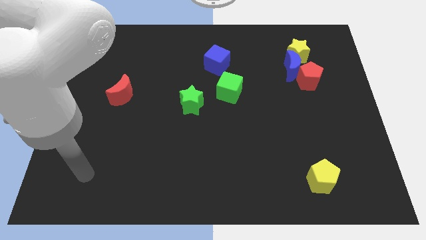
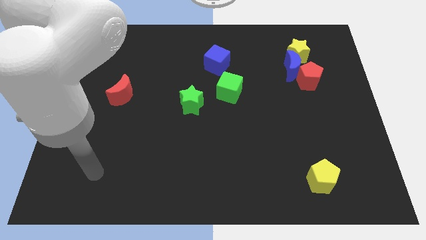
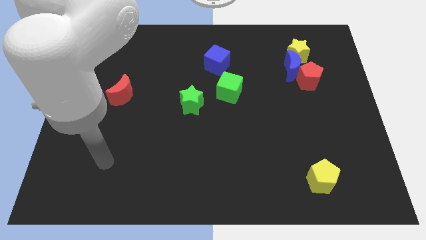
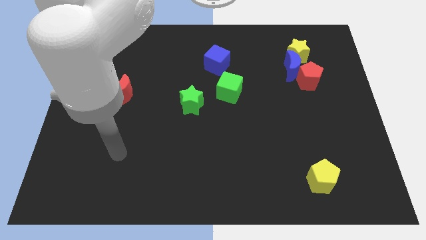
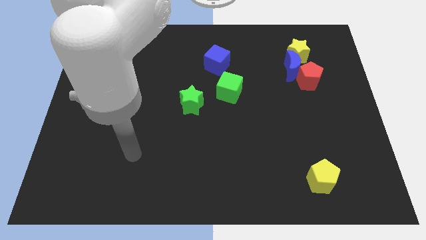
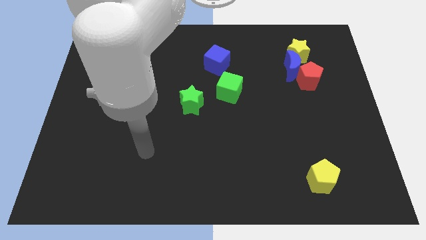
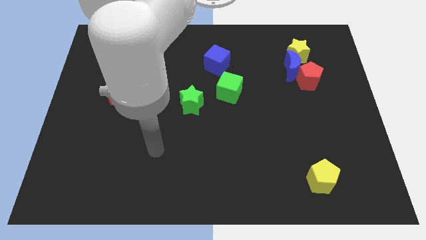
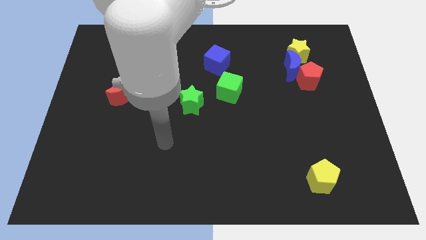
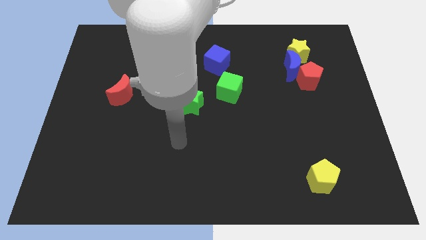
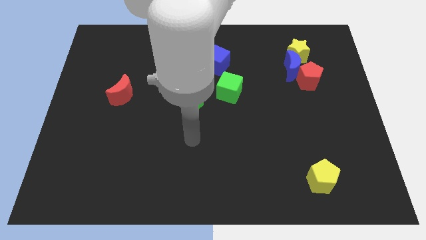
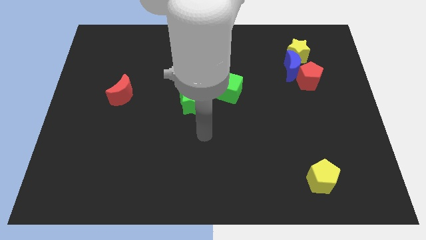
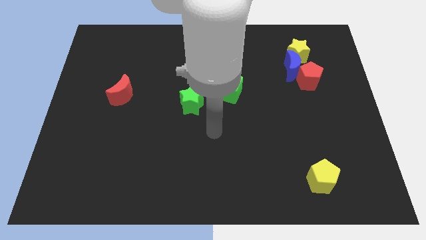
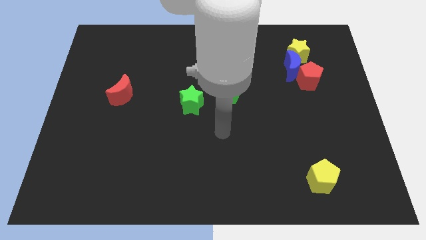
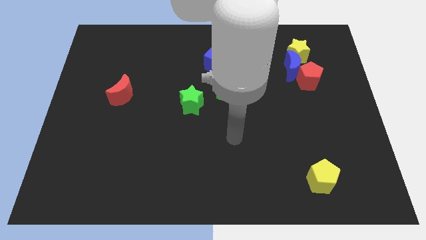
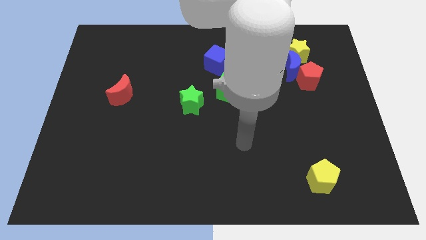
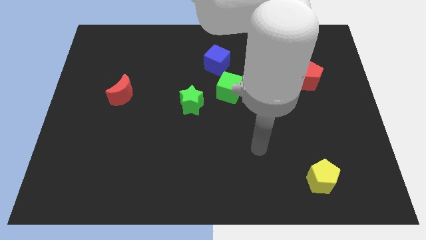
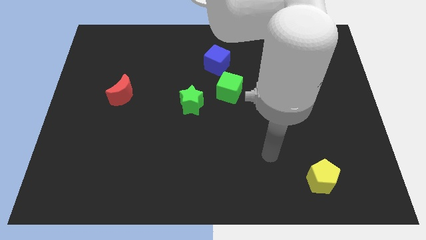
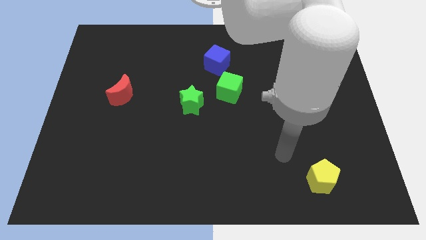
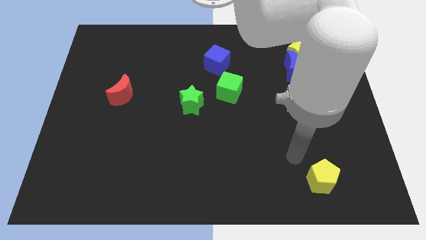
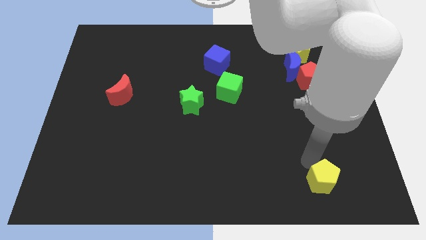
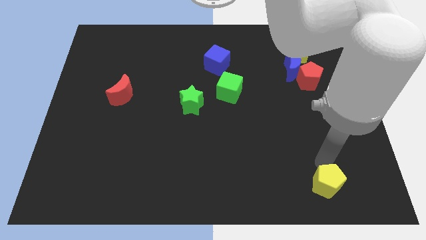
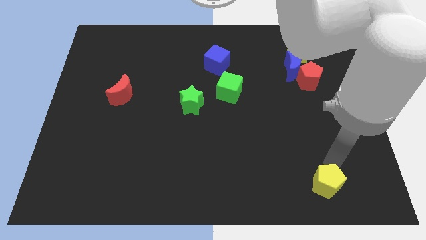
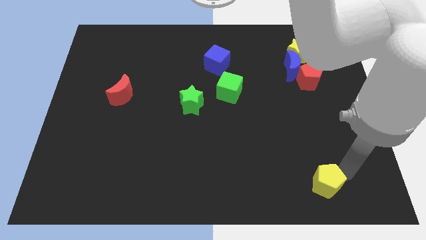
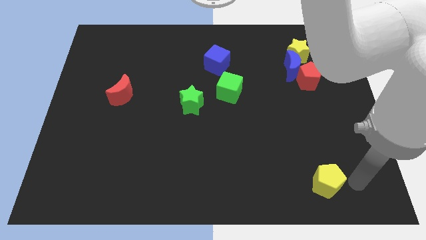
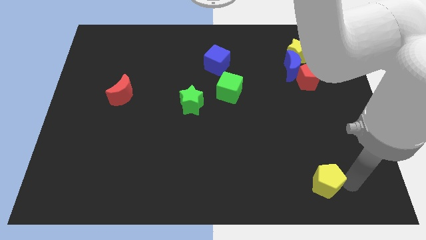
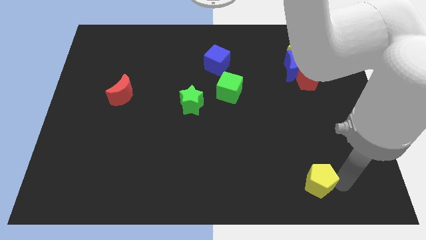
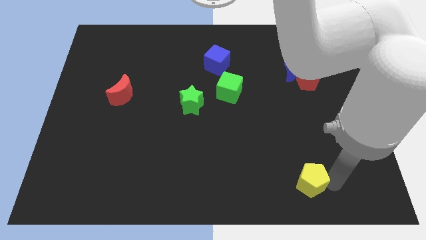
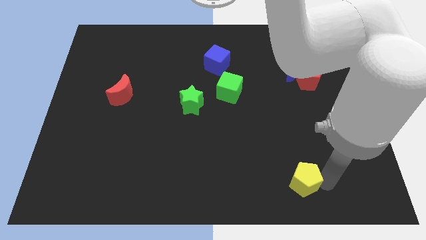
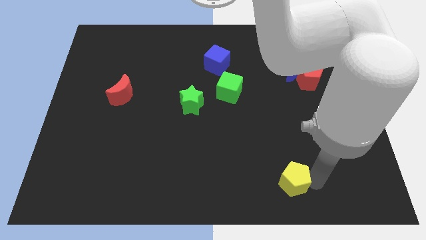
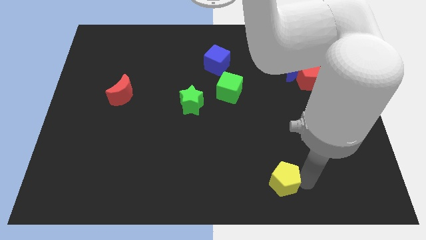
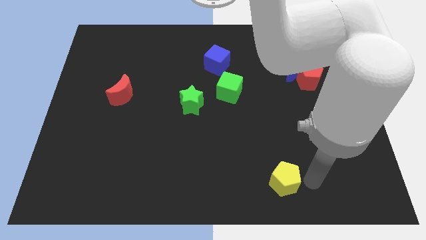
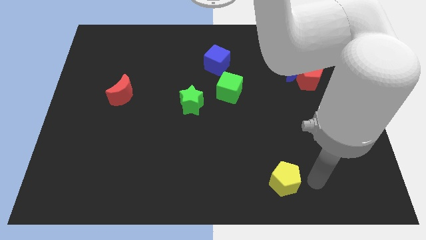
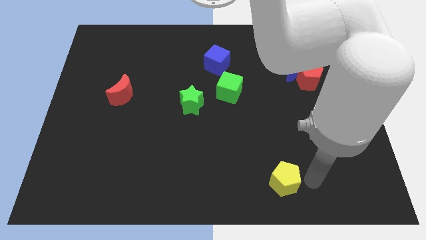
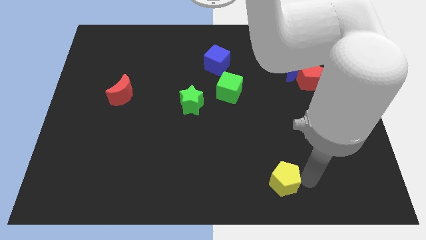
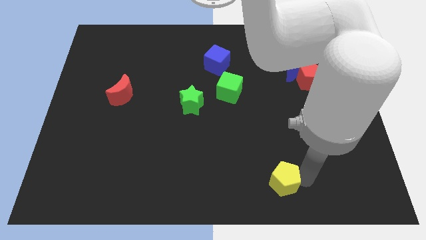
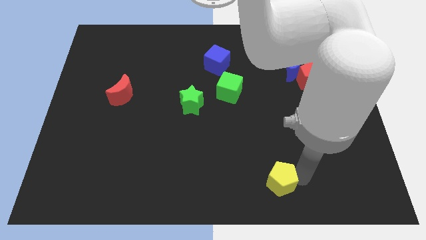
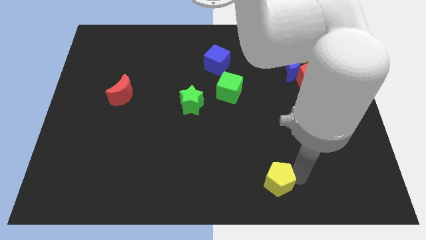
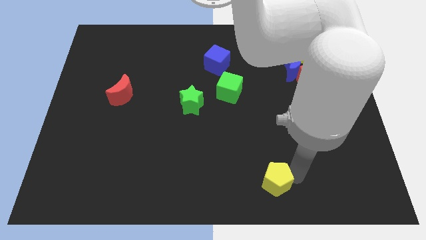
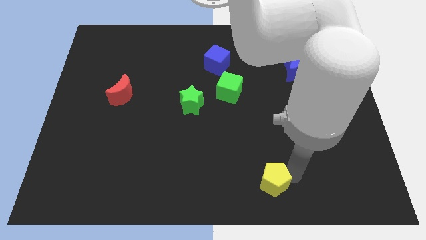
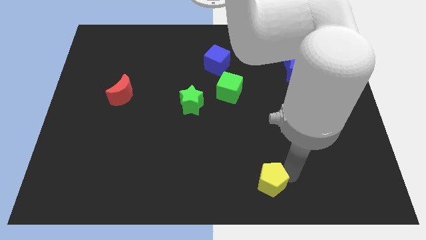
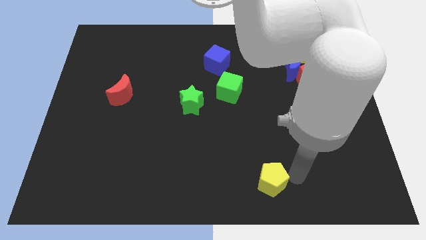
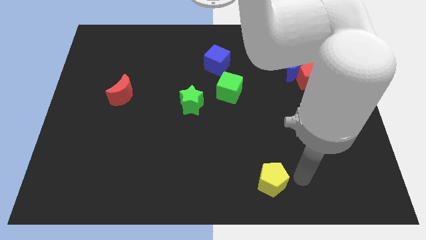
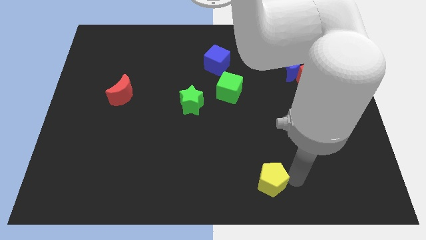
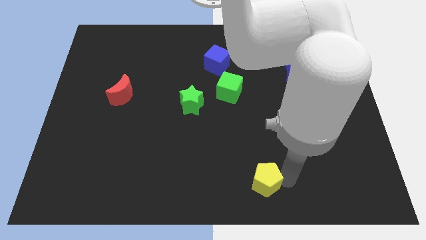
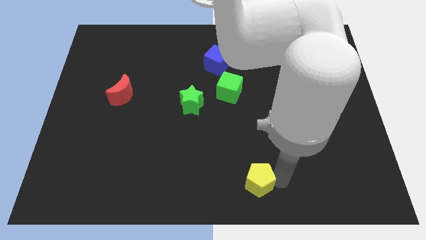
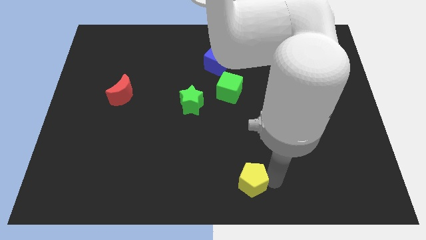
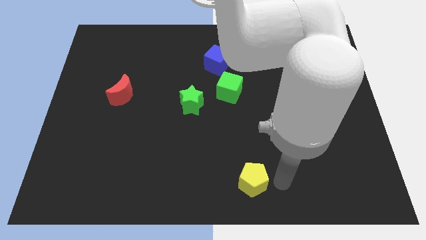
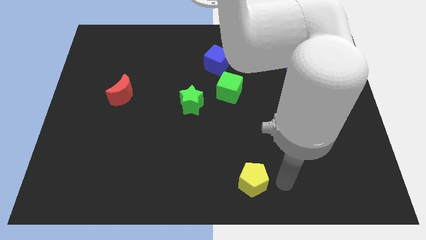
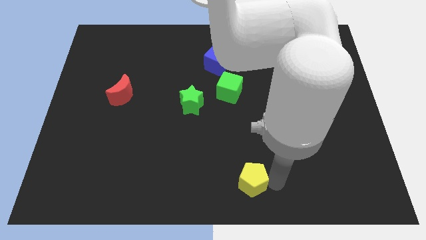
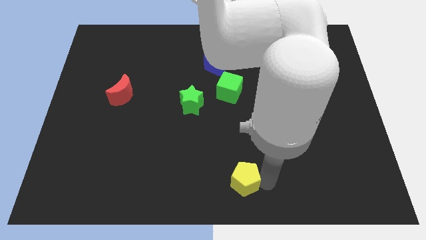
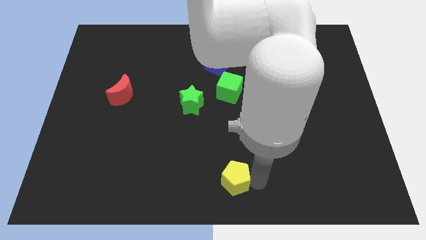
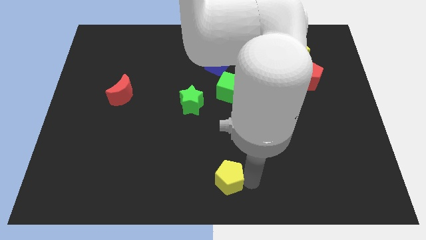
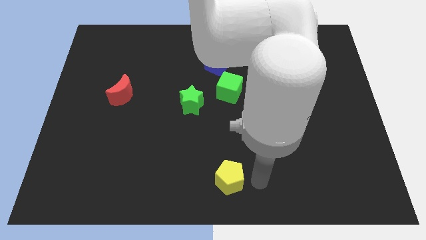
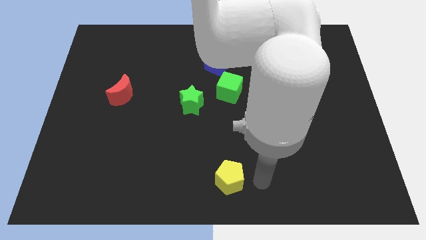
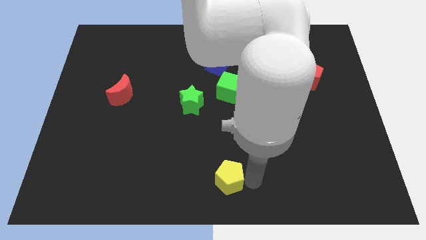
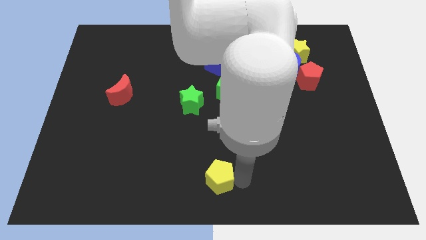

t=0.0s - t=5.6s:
slide the yellow pentagon to the left

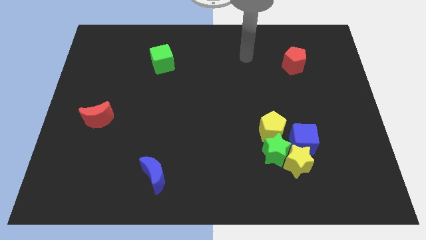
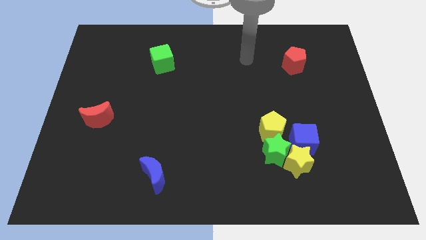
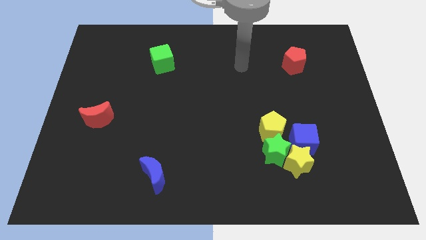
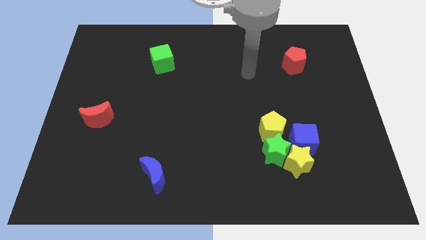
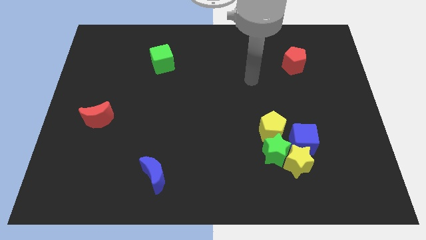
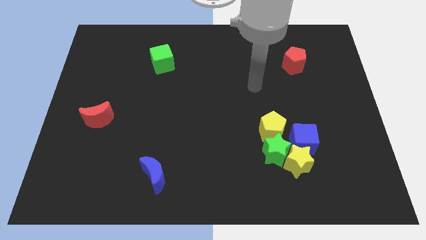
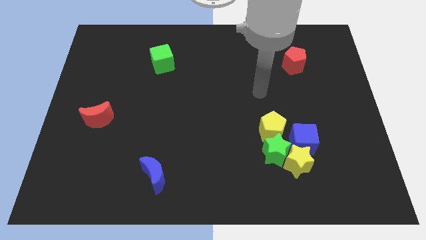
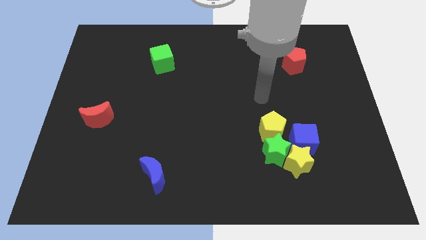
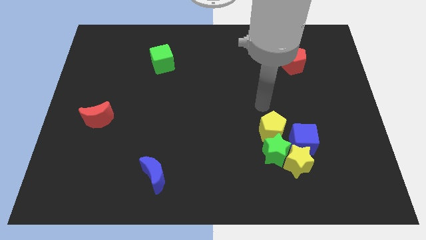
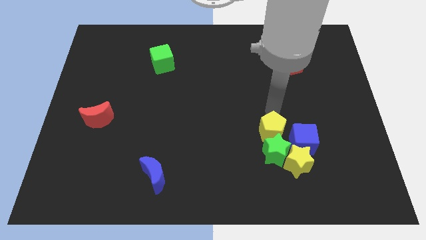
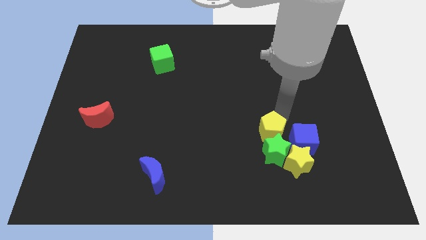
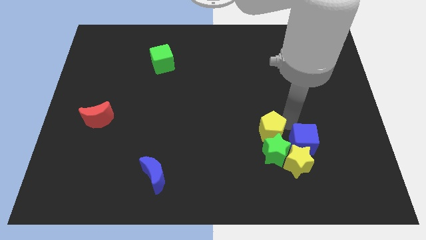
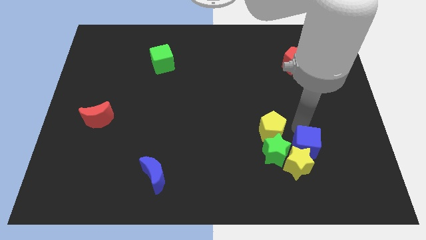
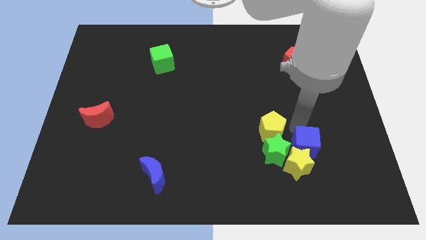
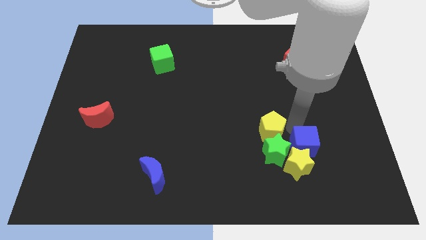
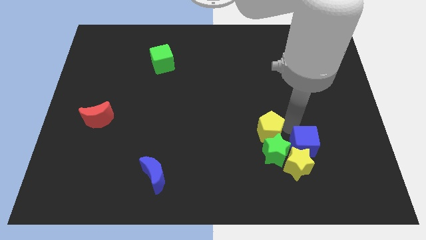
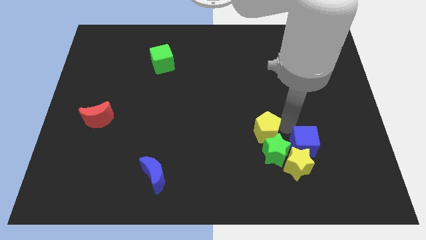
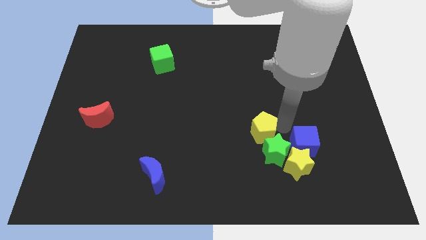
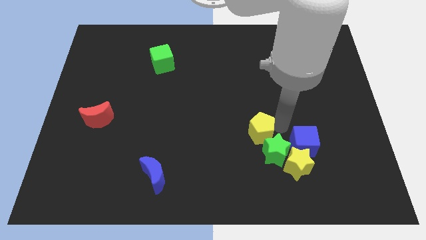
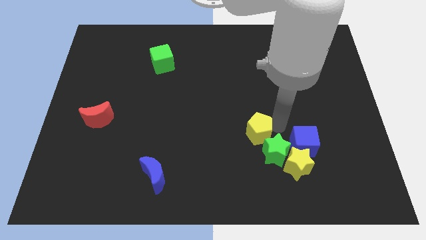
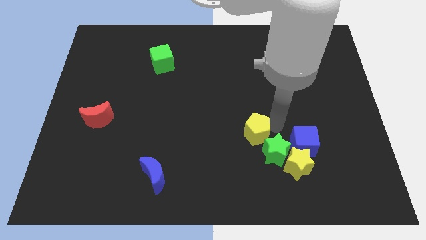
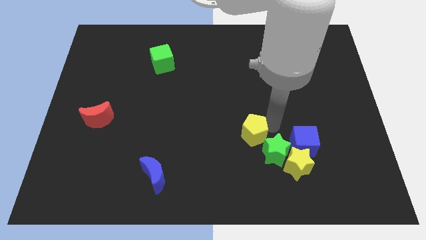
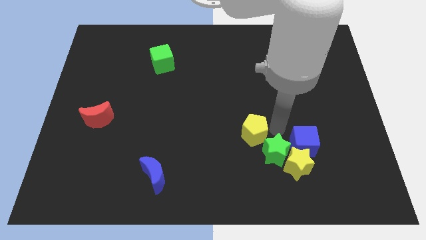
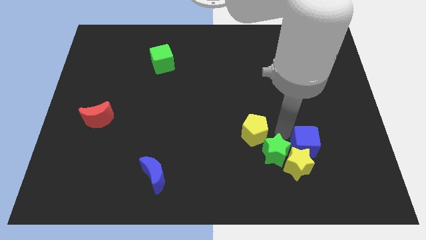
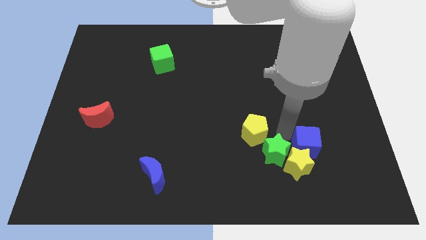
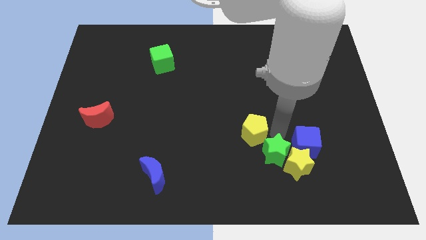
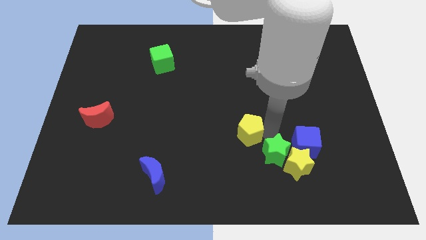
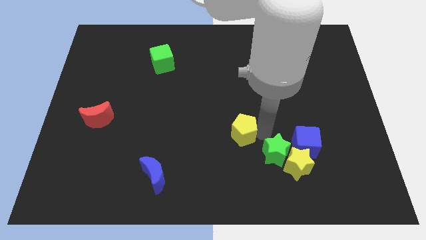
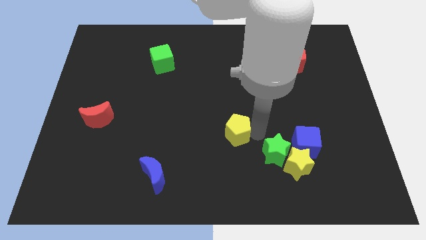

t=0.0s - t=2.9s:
slightly push the yellow pentagon to the left
